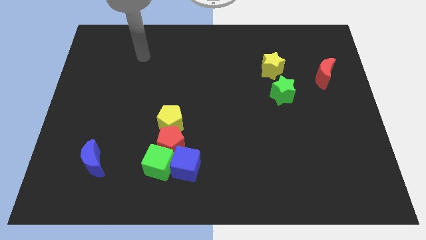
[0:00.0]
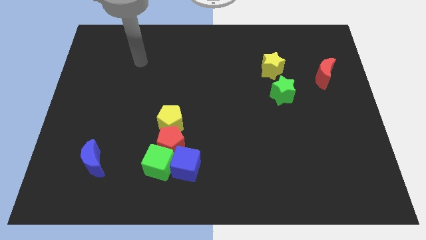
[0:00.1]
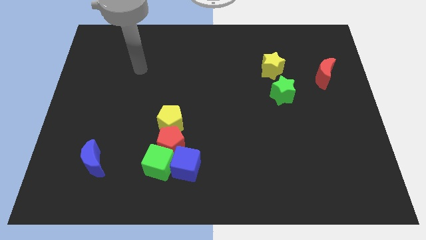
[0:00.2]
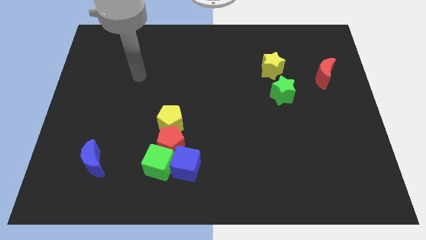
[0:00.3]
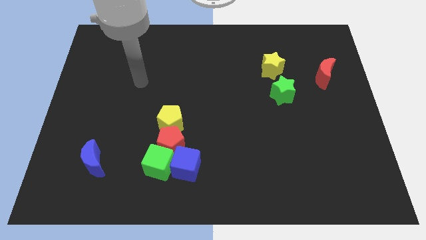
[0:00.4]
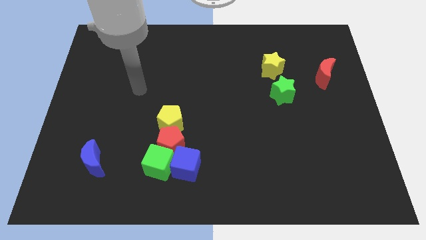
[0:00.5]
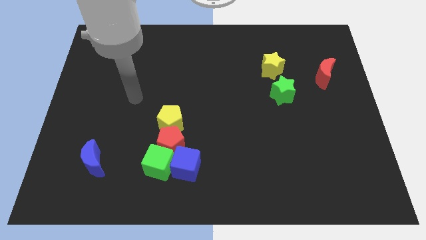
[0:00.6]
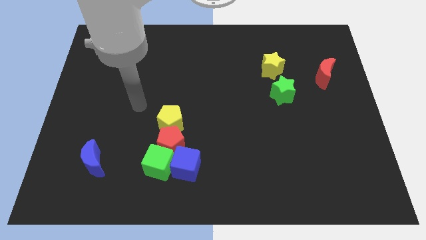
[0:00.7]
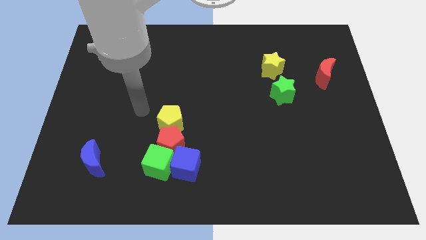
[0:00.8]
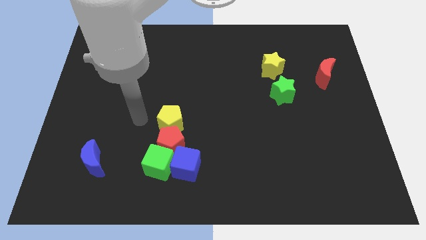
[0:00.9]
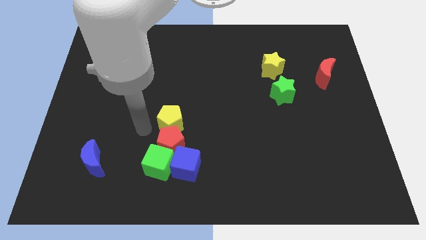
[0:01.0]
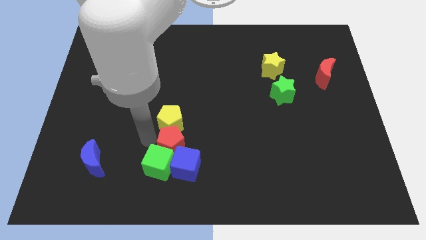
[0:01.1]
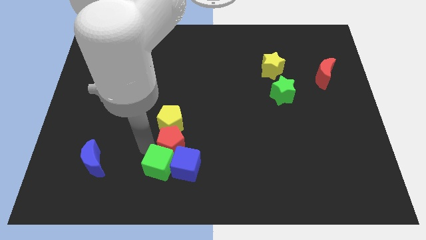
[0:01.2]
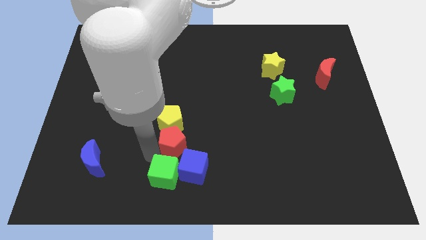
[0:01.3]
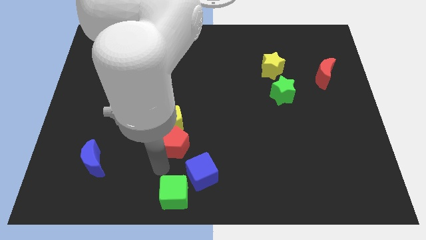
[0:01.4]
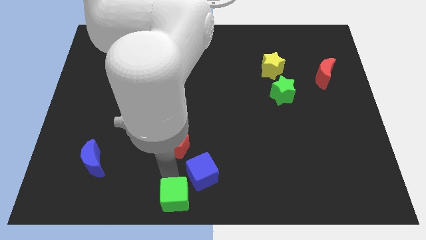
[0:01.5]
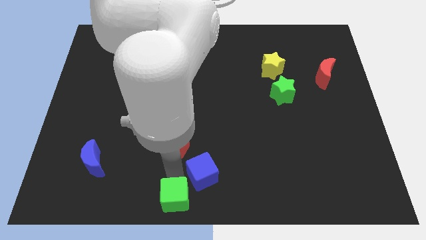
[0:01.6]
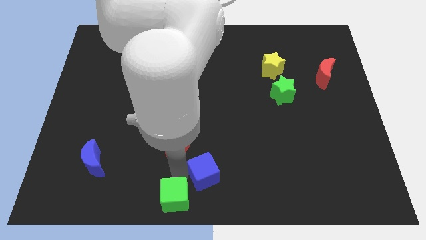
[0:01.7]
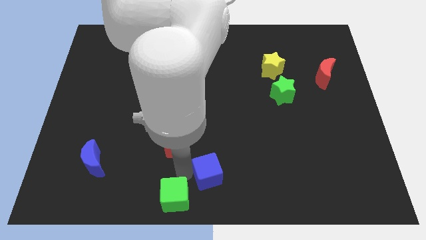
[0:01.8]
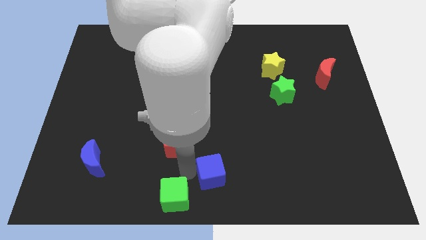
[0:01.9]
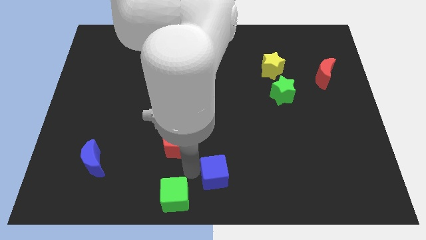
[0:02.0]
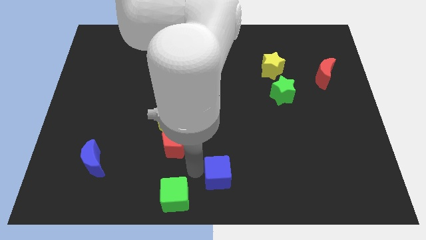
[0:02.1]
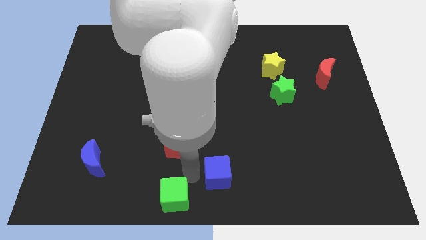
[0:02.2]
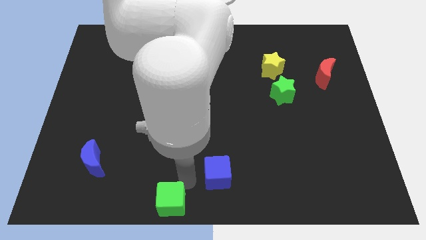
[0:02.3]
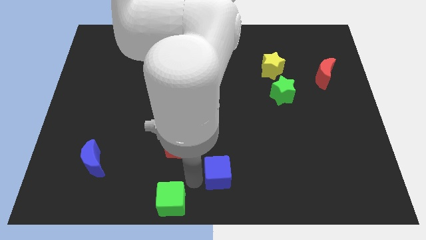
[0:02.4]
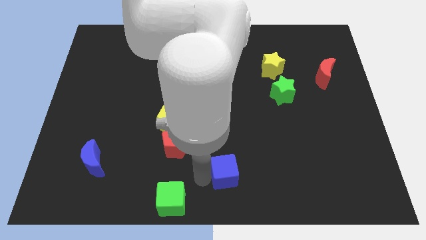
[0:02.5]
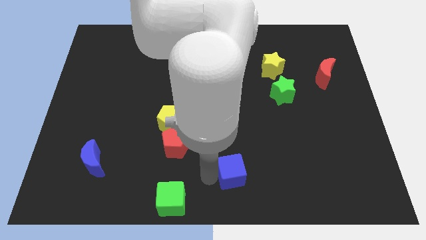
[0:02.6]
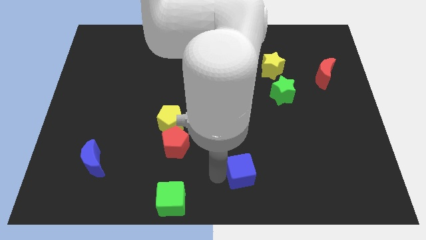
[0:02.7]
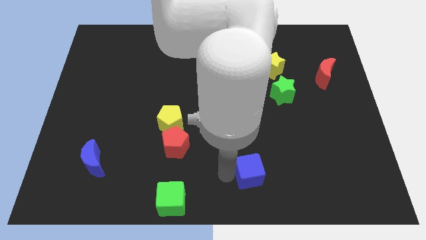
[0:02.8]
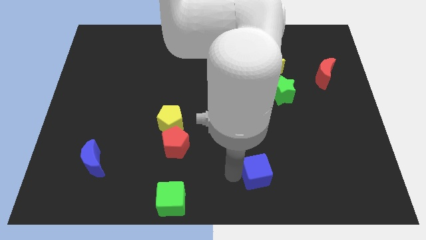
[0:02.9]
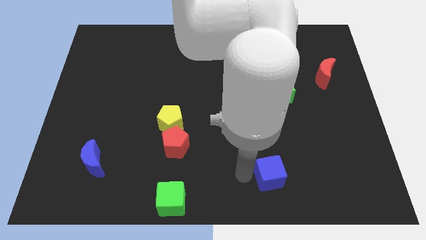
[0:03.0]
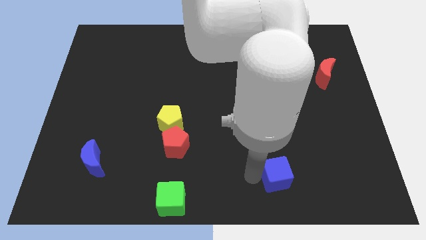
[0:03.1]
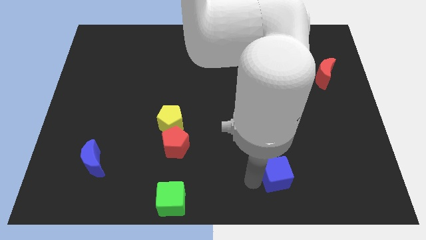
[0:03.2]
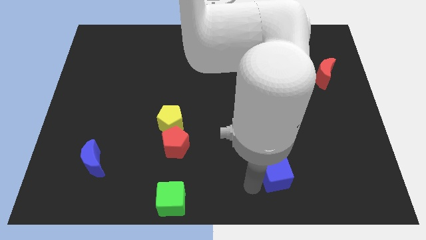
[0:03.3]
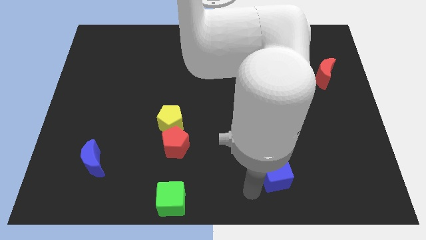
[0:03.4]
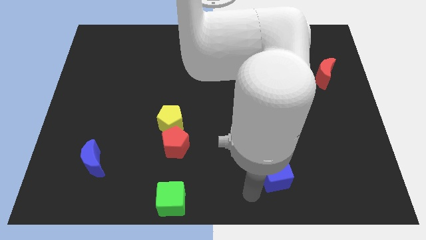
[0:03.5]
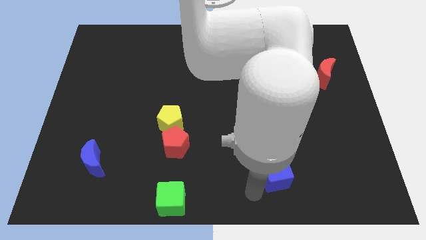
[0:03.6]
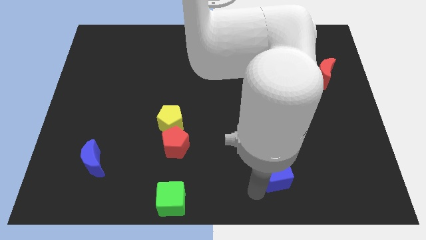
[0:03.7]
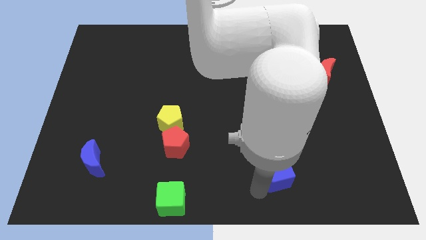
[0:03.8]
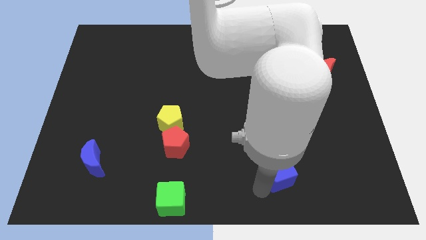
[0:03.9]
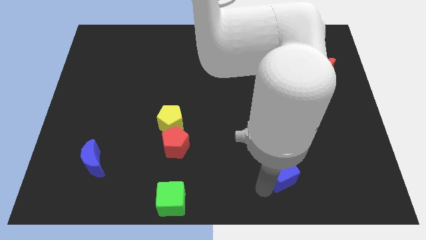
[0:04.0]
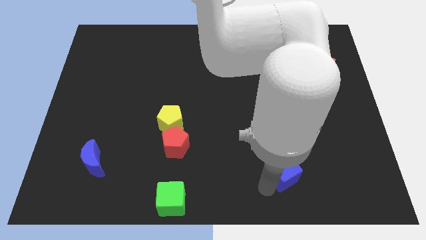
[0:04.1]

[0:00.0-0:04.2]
push the blue cube to the right

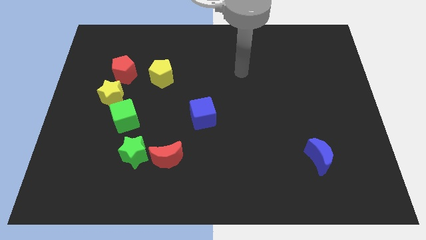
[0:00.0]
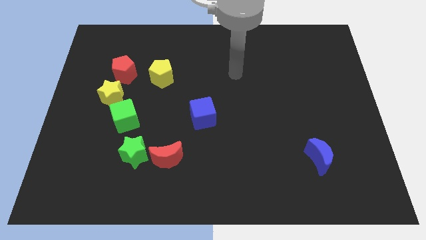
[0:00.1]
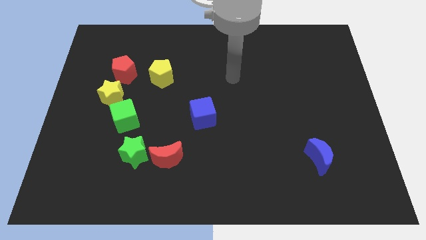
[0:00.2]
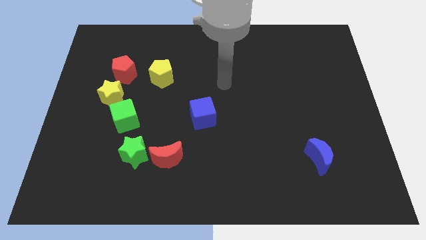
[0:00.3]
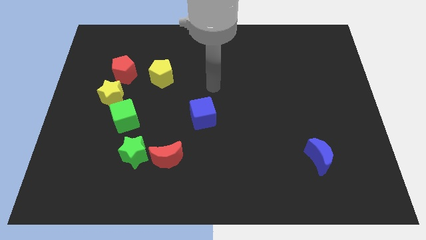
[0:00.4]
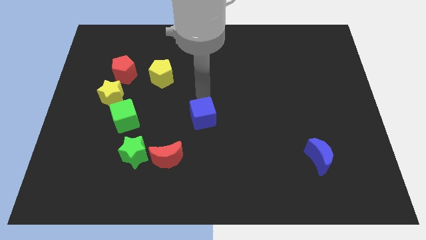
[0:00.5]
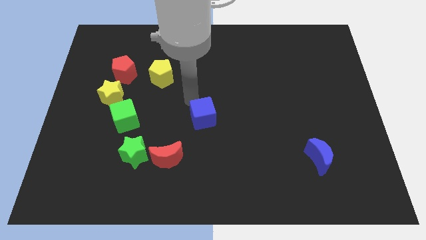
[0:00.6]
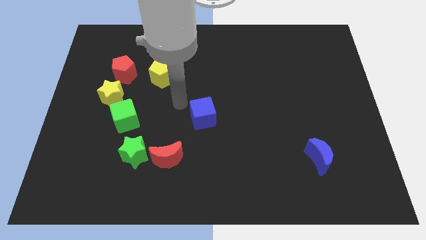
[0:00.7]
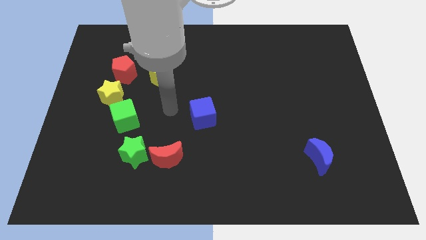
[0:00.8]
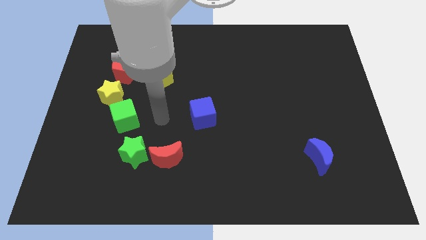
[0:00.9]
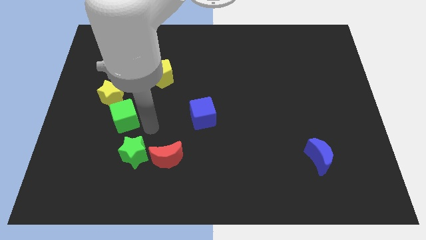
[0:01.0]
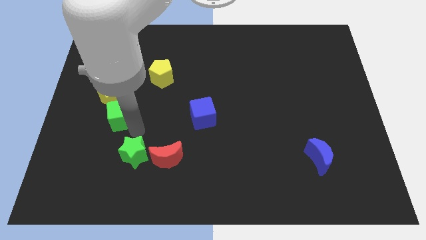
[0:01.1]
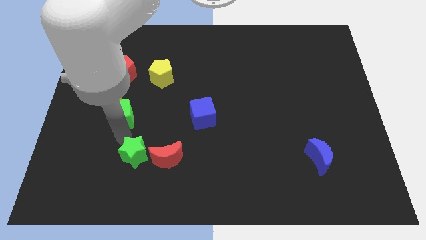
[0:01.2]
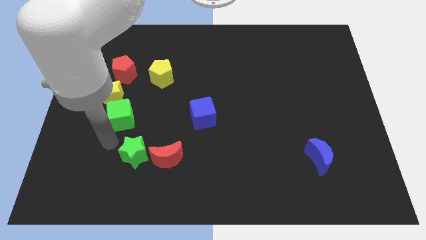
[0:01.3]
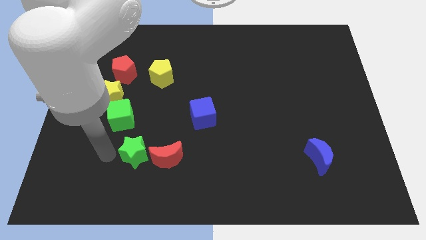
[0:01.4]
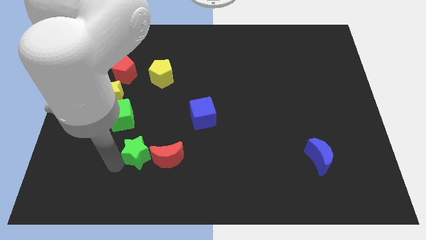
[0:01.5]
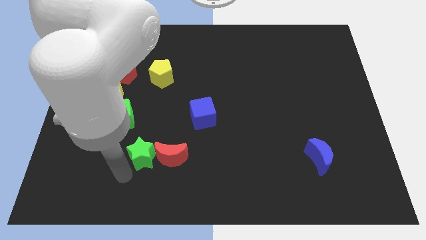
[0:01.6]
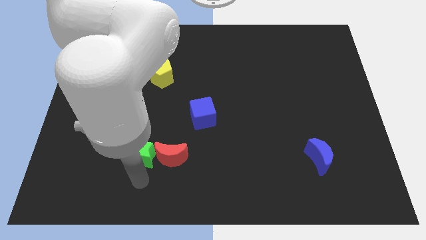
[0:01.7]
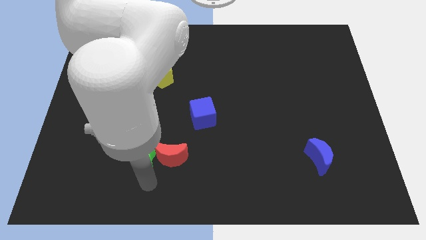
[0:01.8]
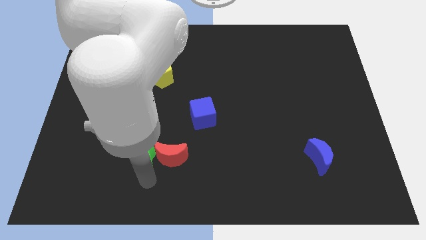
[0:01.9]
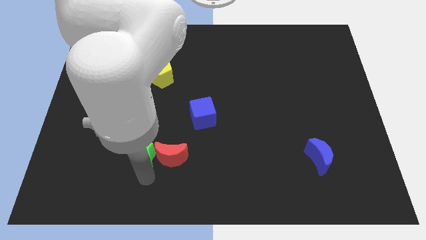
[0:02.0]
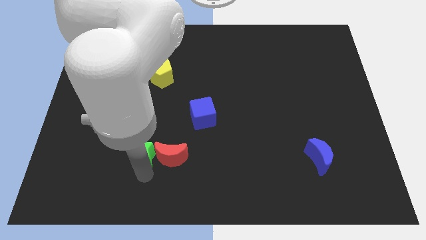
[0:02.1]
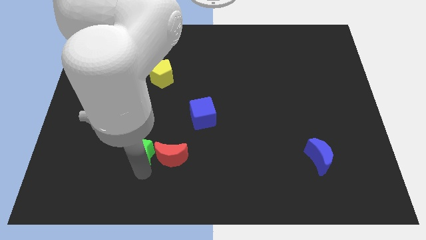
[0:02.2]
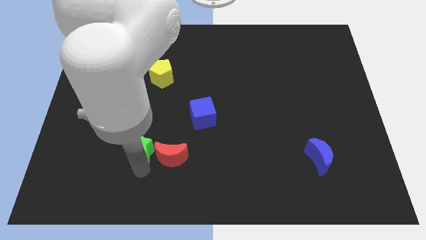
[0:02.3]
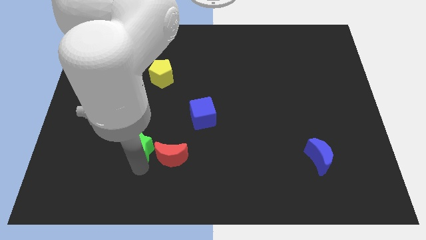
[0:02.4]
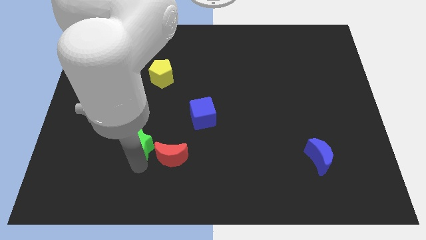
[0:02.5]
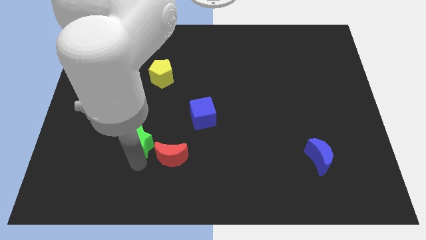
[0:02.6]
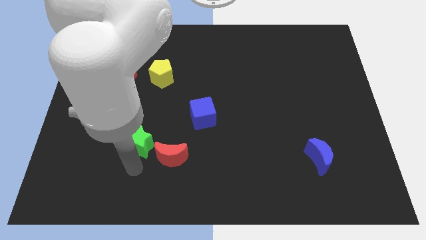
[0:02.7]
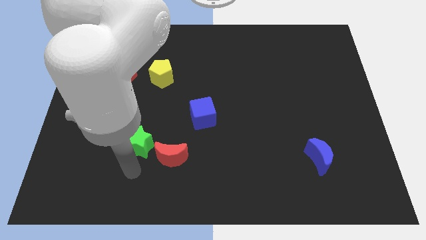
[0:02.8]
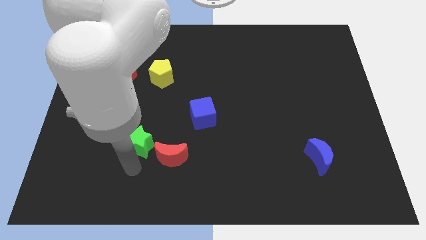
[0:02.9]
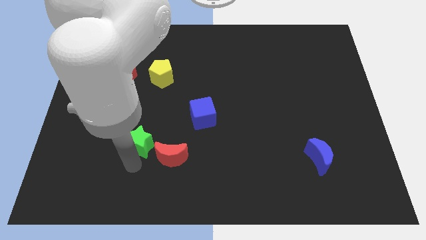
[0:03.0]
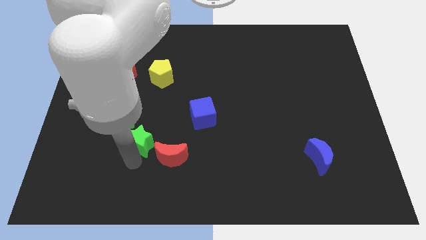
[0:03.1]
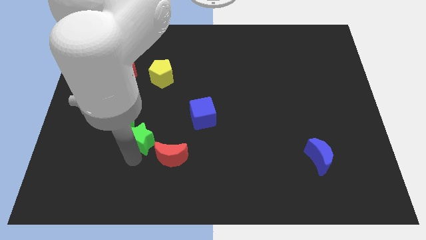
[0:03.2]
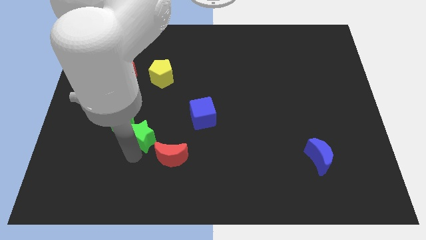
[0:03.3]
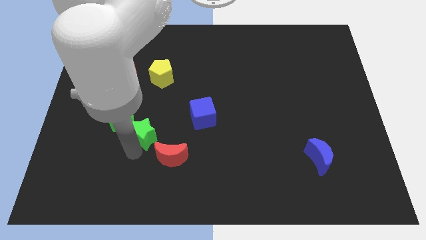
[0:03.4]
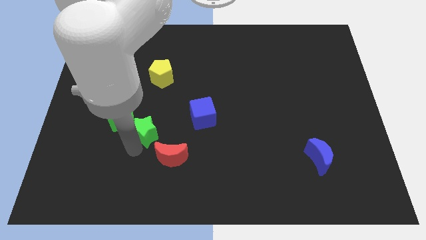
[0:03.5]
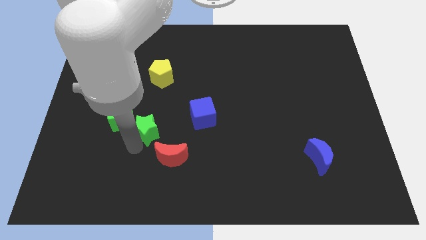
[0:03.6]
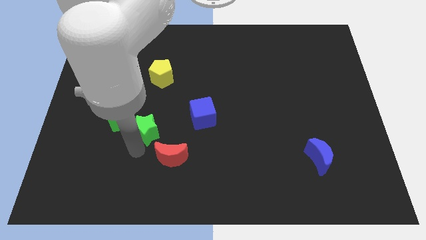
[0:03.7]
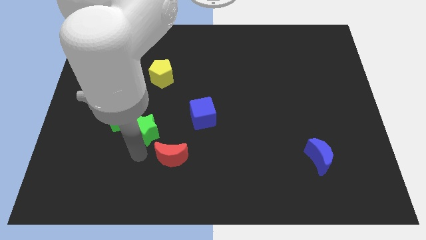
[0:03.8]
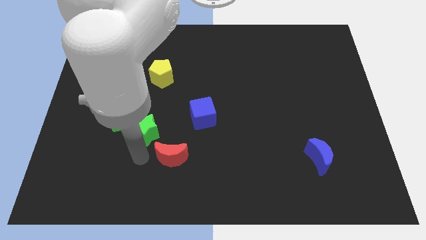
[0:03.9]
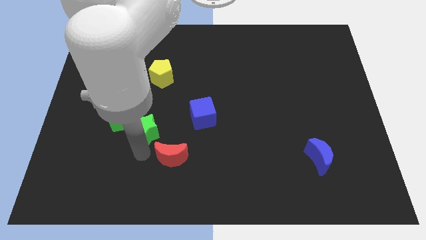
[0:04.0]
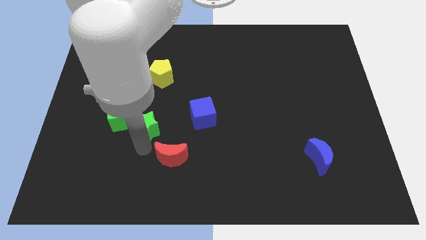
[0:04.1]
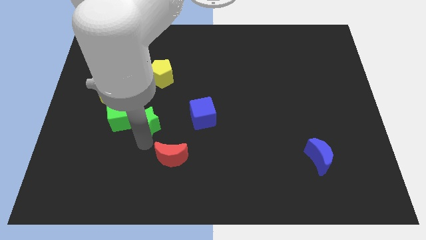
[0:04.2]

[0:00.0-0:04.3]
push the green star slightly upwards
